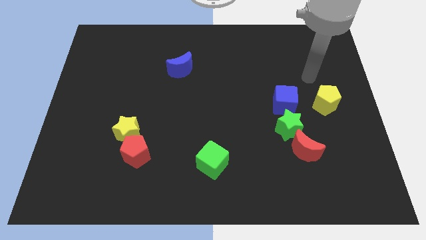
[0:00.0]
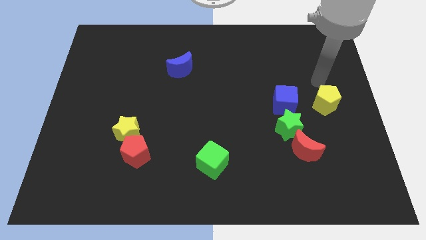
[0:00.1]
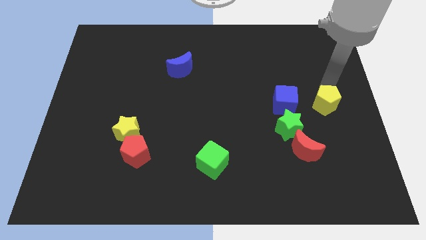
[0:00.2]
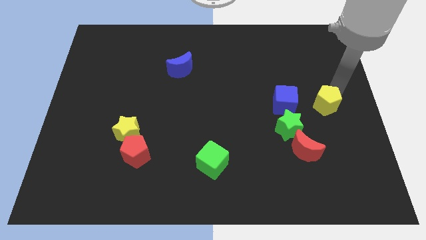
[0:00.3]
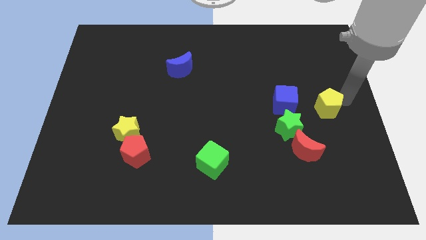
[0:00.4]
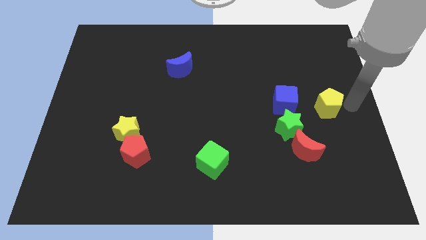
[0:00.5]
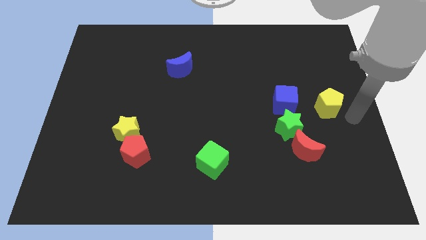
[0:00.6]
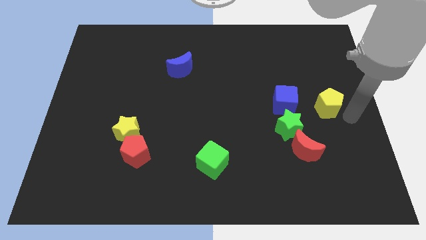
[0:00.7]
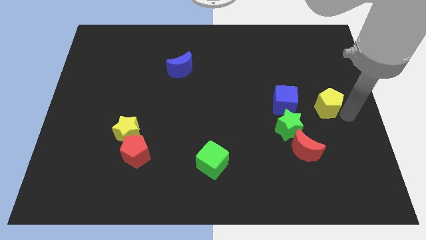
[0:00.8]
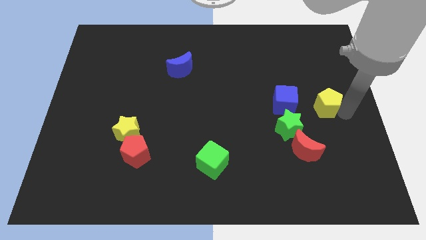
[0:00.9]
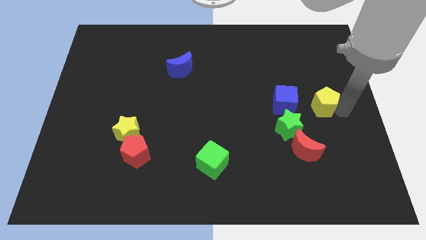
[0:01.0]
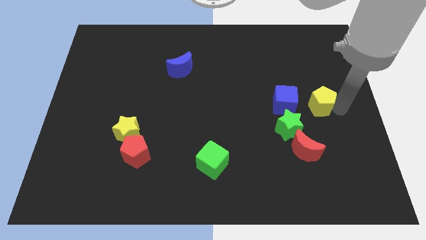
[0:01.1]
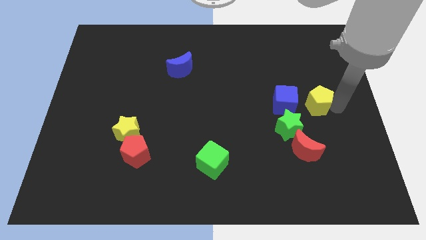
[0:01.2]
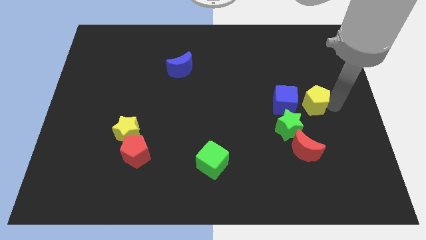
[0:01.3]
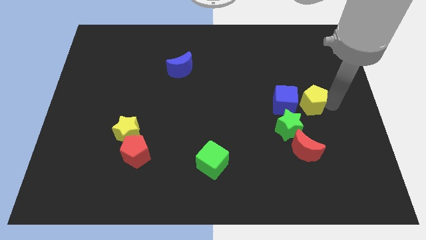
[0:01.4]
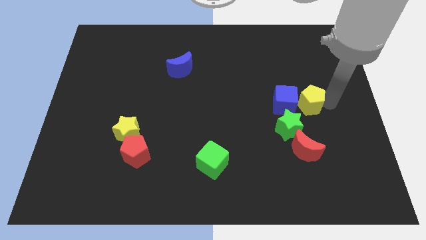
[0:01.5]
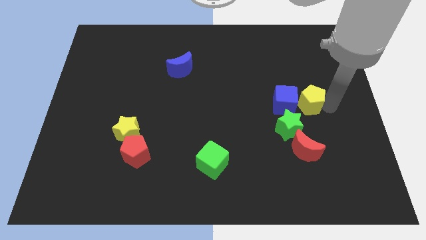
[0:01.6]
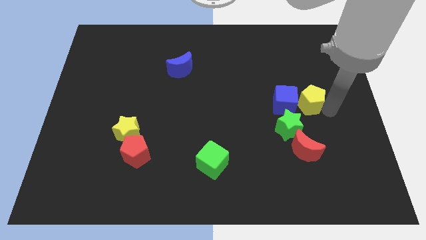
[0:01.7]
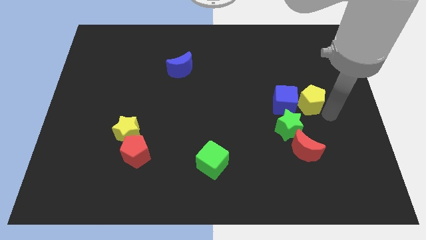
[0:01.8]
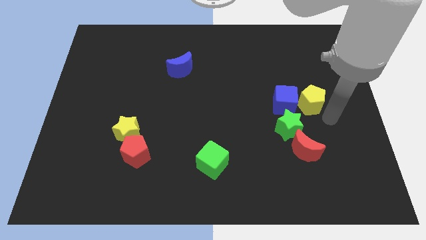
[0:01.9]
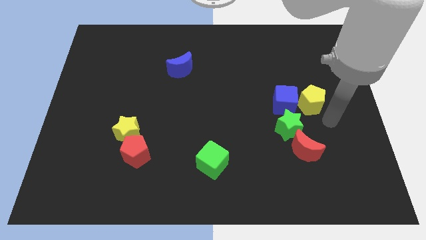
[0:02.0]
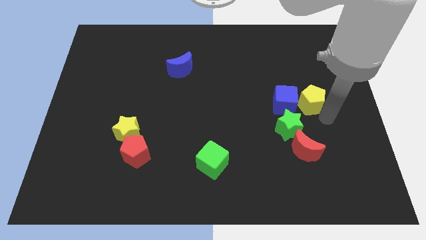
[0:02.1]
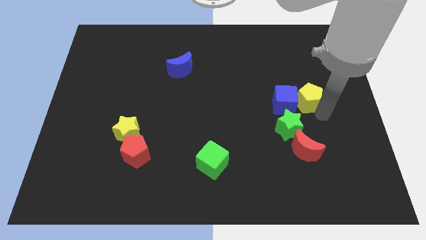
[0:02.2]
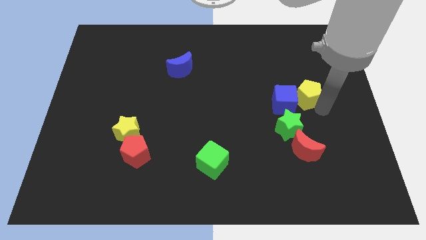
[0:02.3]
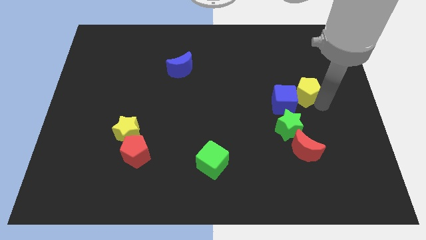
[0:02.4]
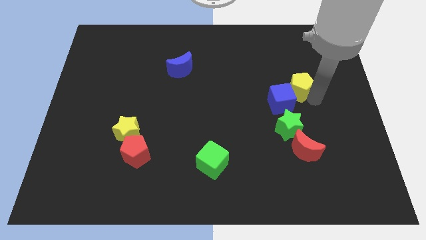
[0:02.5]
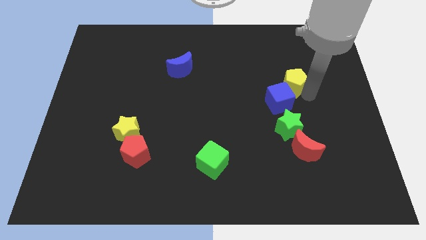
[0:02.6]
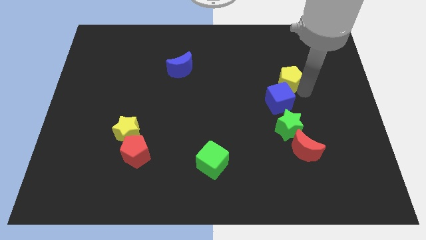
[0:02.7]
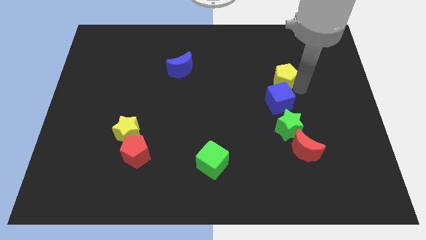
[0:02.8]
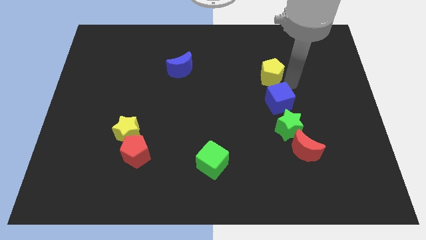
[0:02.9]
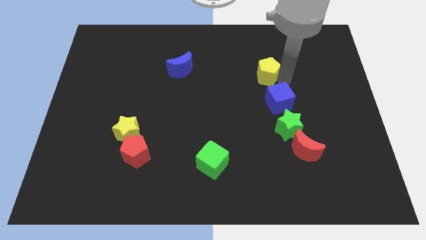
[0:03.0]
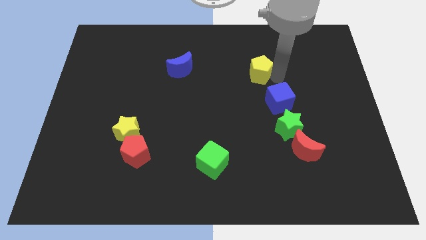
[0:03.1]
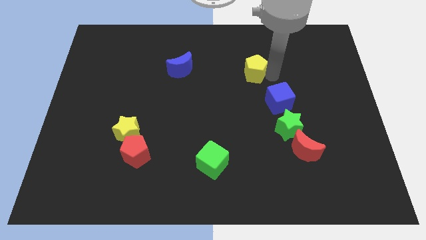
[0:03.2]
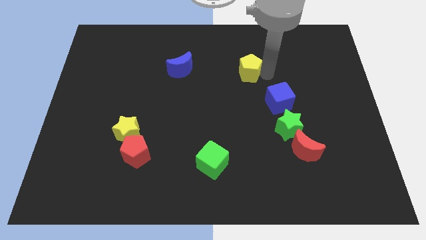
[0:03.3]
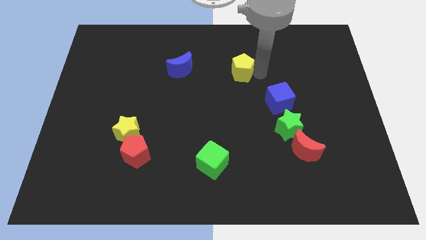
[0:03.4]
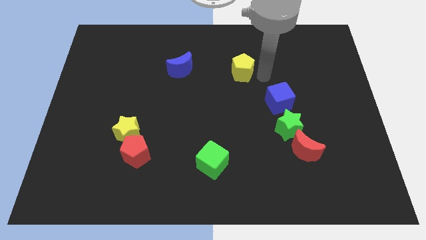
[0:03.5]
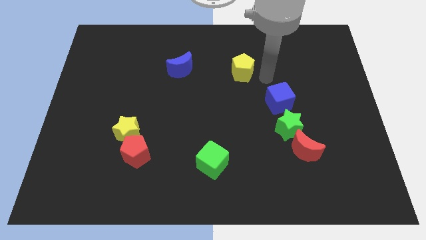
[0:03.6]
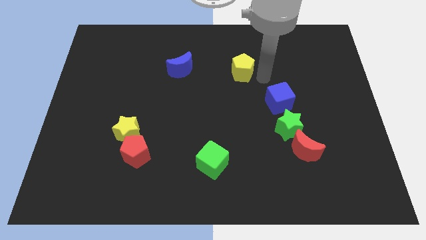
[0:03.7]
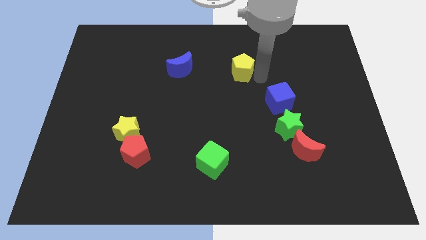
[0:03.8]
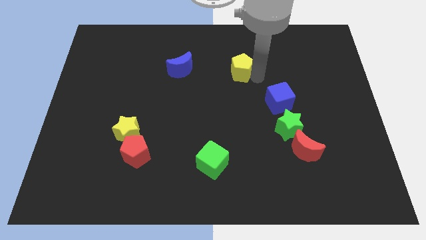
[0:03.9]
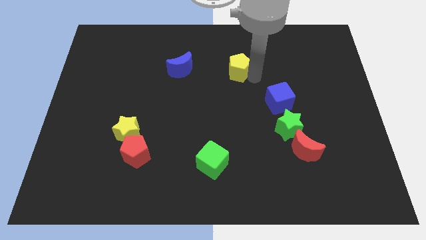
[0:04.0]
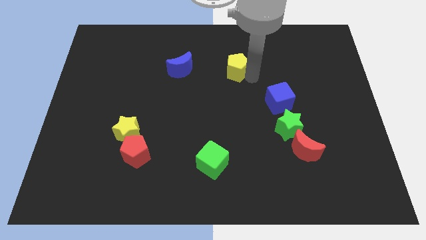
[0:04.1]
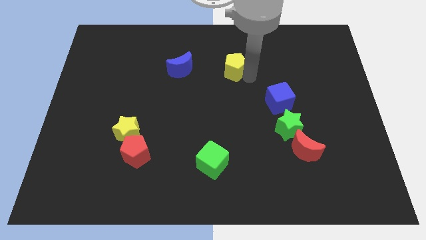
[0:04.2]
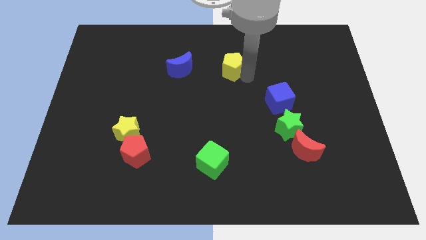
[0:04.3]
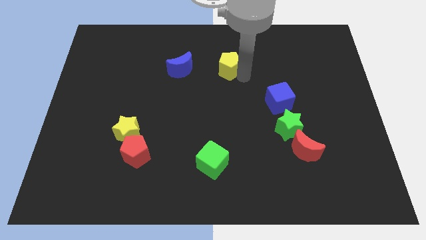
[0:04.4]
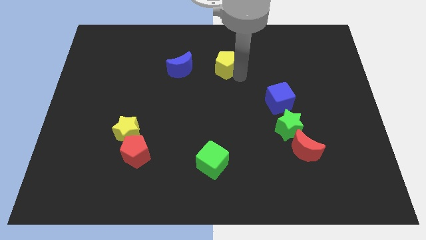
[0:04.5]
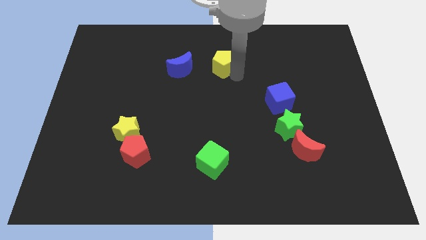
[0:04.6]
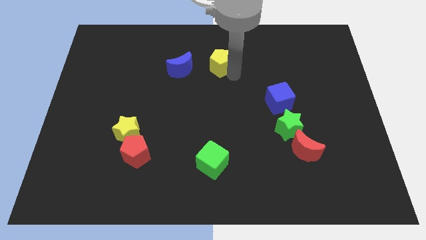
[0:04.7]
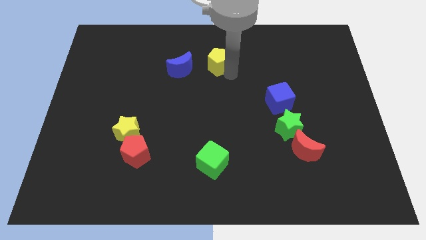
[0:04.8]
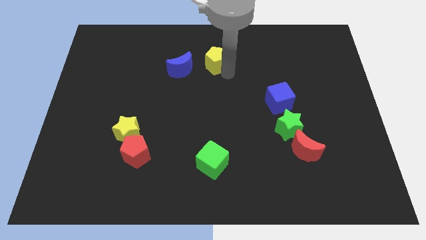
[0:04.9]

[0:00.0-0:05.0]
slide the yellow pentagon to the top right side of the blue moon

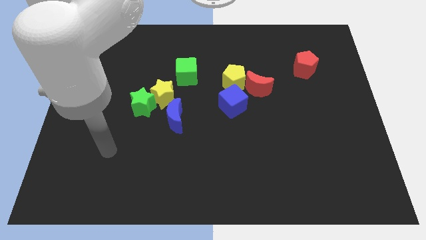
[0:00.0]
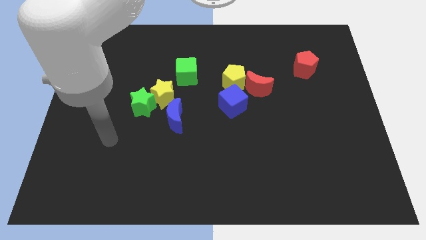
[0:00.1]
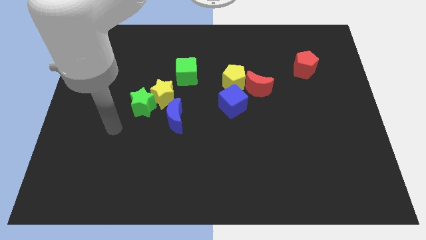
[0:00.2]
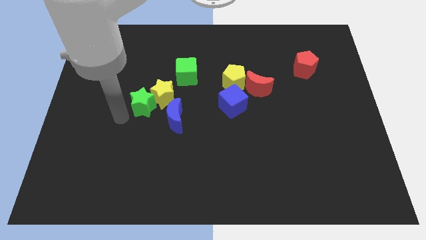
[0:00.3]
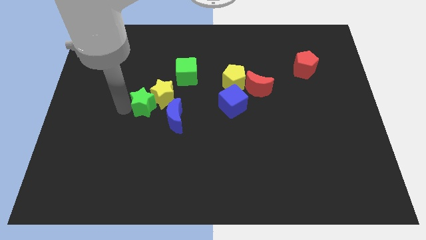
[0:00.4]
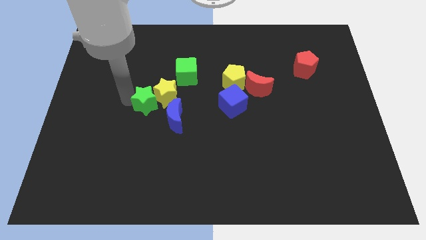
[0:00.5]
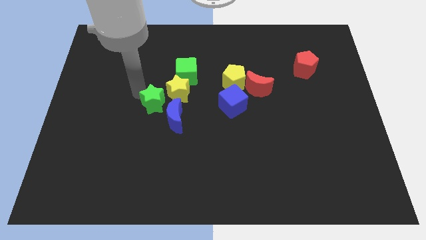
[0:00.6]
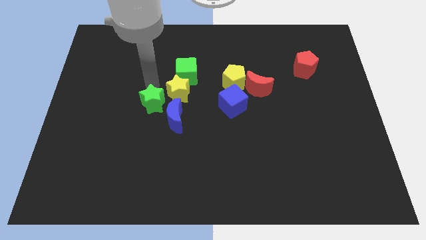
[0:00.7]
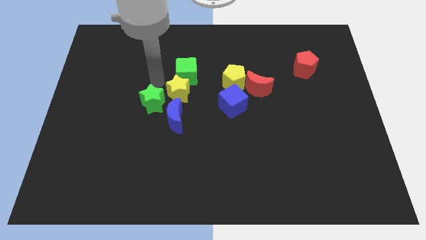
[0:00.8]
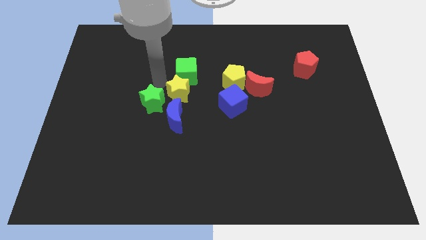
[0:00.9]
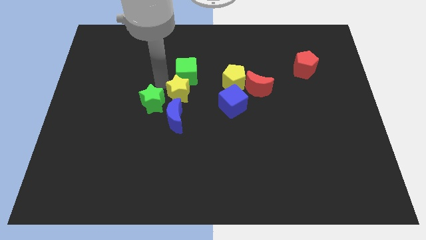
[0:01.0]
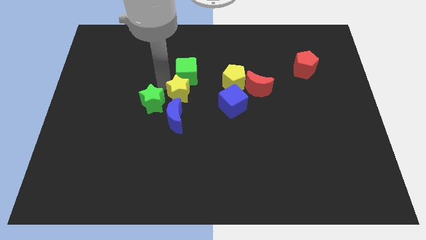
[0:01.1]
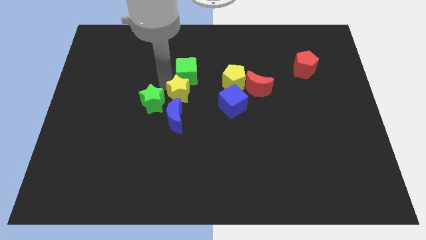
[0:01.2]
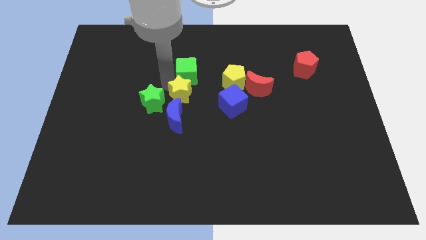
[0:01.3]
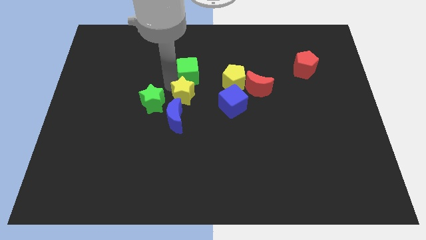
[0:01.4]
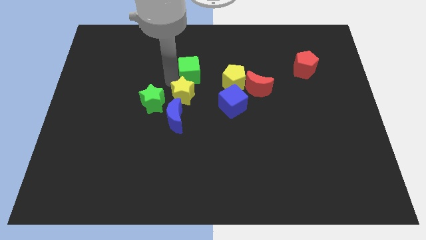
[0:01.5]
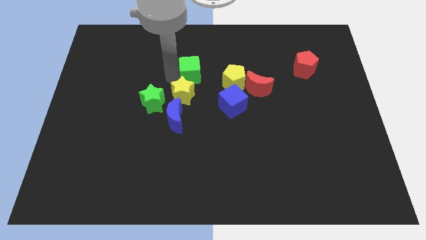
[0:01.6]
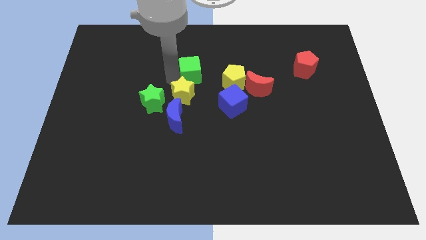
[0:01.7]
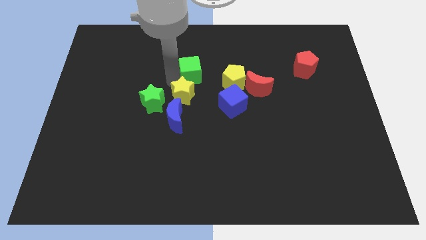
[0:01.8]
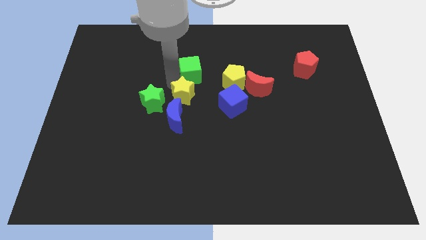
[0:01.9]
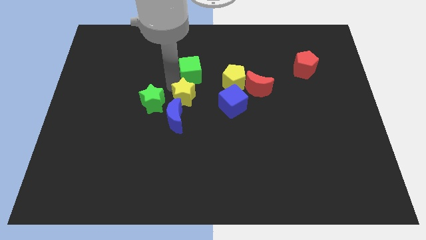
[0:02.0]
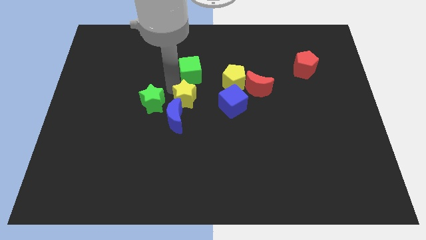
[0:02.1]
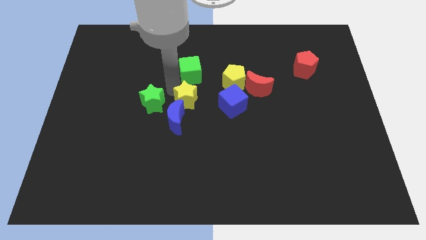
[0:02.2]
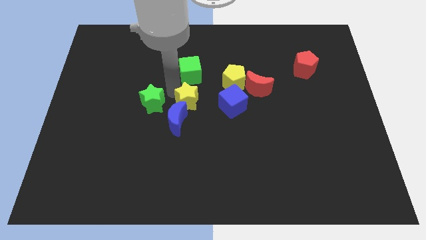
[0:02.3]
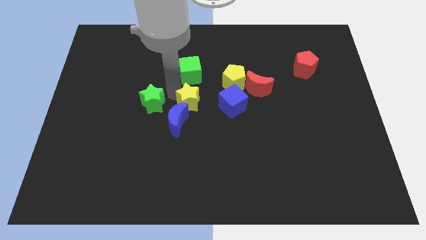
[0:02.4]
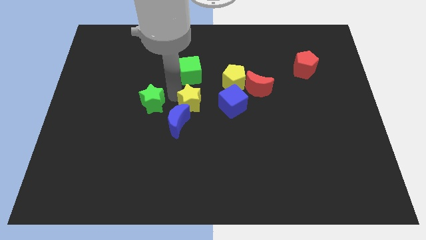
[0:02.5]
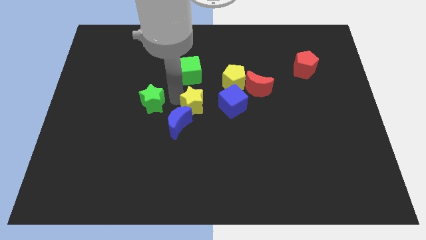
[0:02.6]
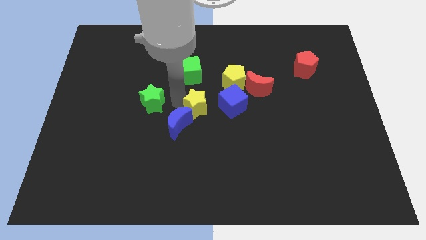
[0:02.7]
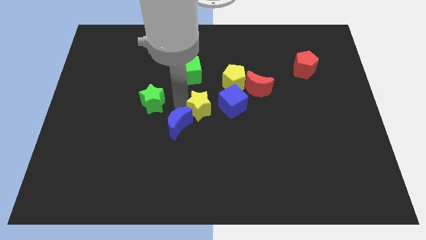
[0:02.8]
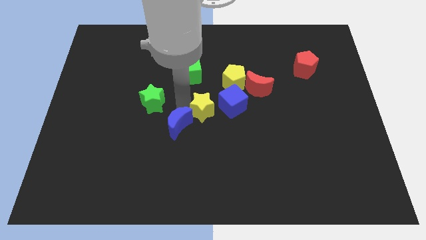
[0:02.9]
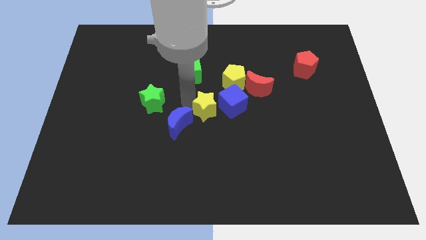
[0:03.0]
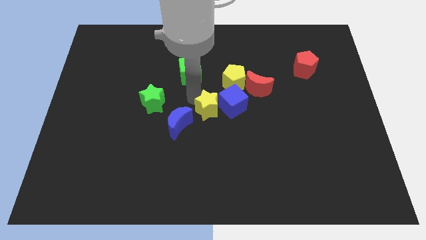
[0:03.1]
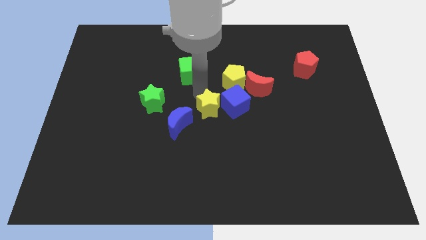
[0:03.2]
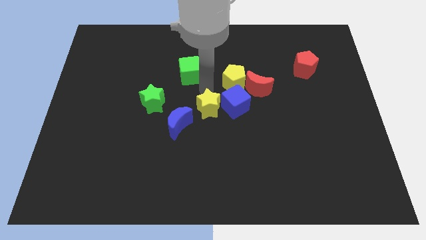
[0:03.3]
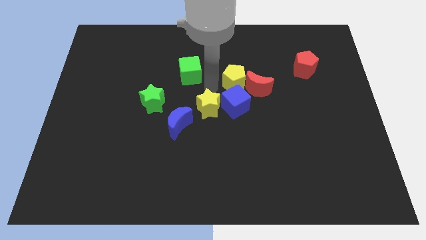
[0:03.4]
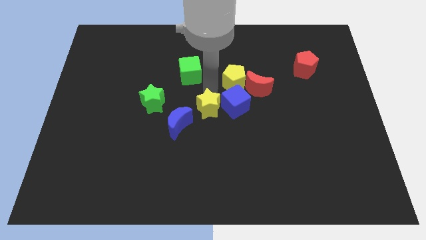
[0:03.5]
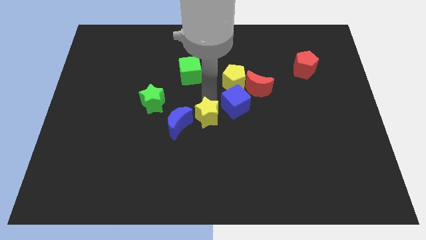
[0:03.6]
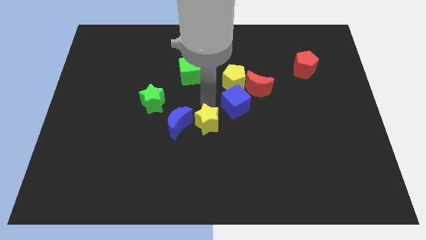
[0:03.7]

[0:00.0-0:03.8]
slide the yellow star diagonally down and to the right of the blue moon
